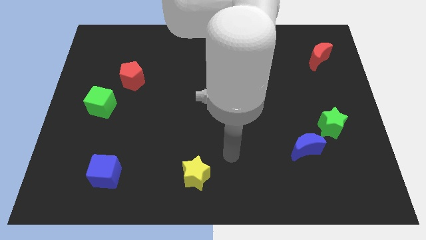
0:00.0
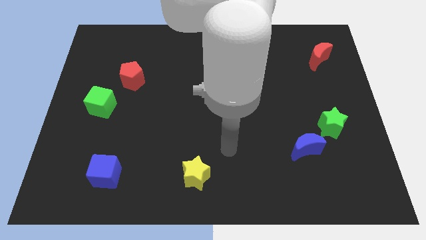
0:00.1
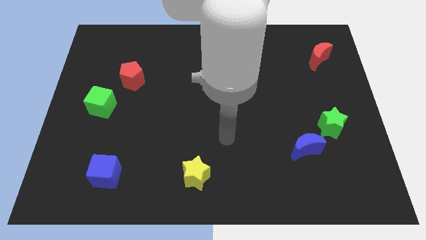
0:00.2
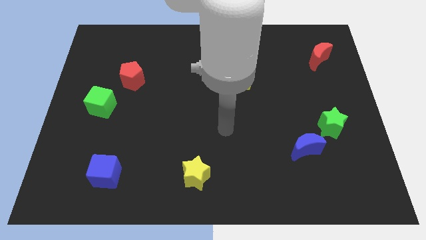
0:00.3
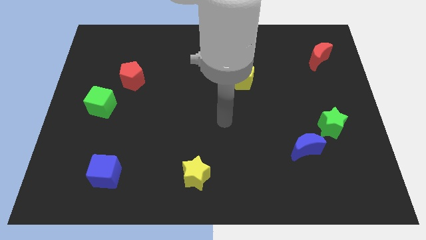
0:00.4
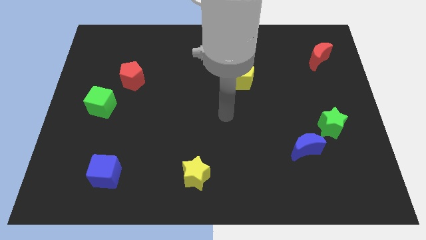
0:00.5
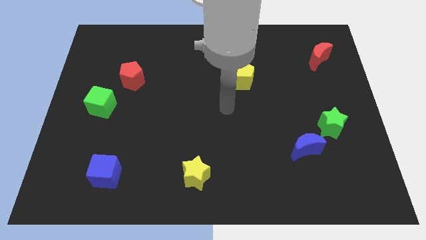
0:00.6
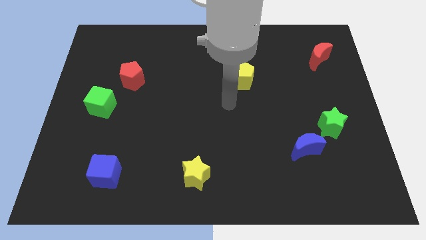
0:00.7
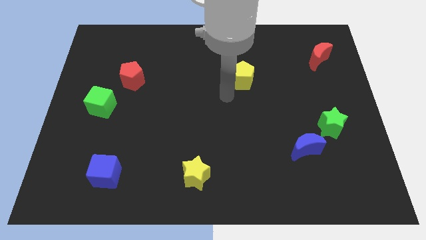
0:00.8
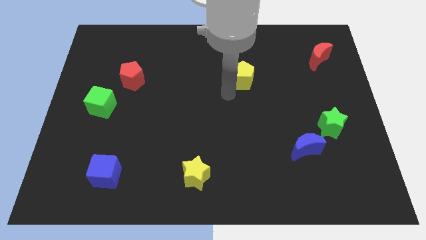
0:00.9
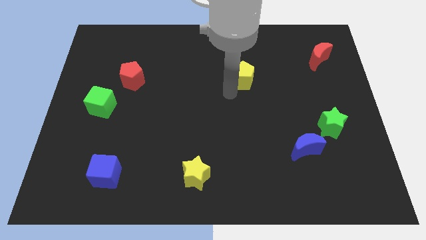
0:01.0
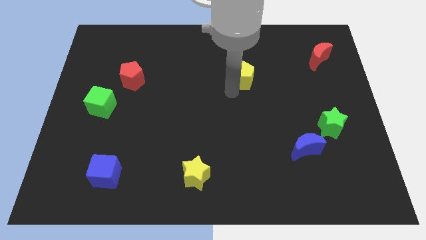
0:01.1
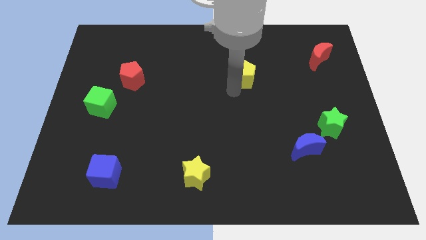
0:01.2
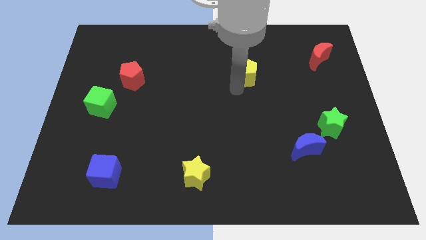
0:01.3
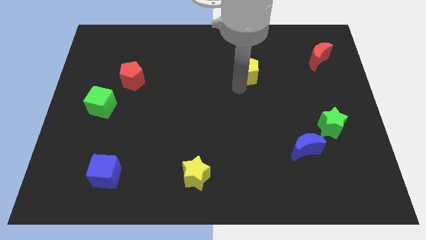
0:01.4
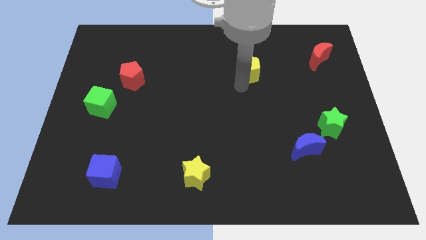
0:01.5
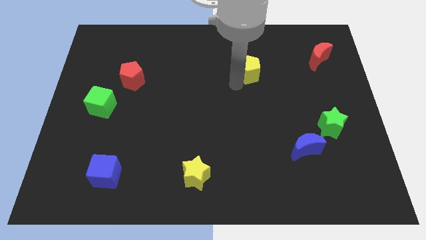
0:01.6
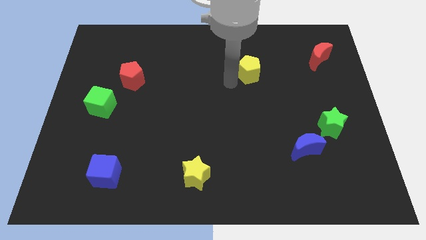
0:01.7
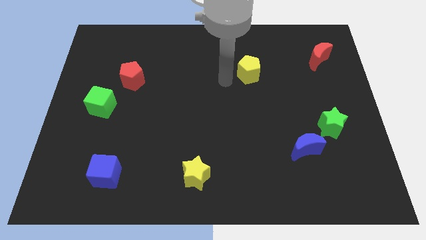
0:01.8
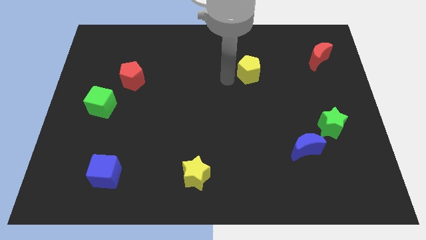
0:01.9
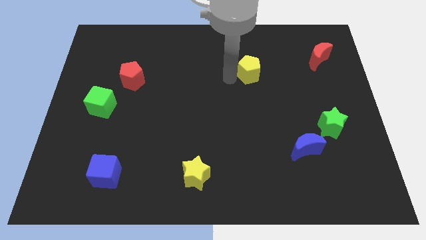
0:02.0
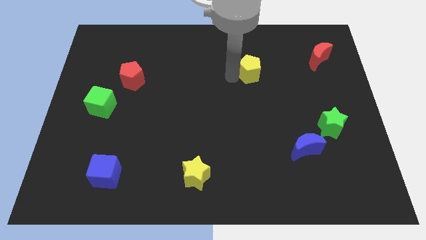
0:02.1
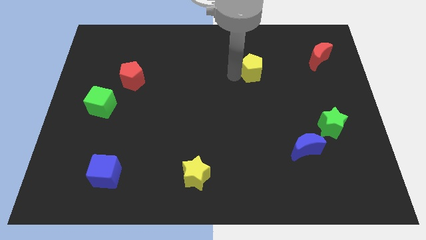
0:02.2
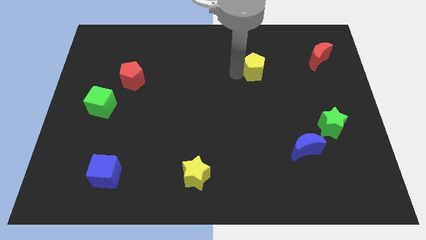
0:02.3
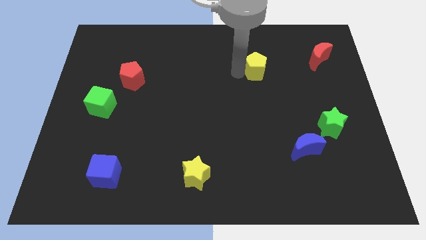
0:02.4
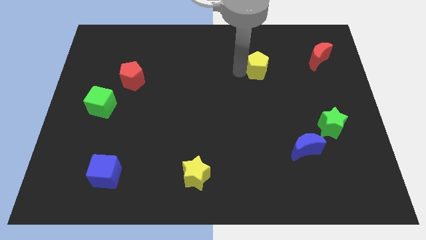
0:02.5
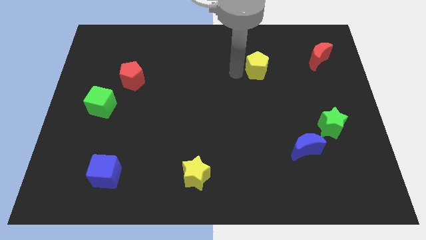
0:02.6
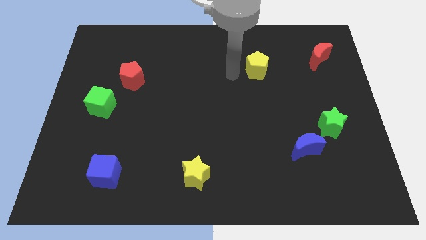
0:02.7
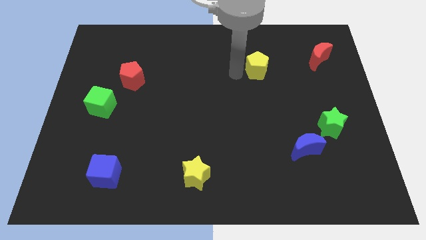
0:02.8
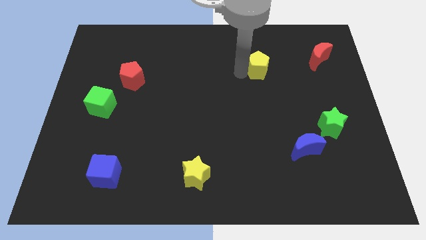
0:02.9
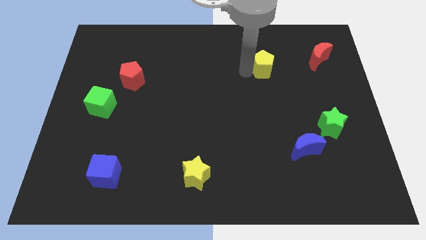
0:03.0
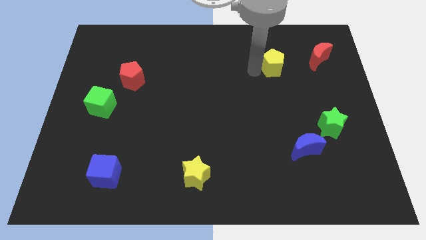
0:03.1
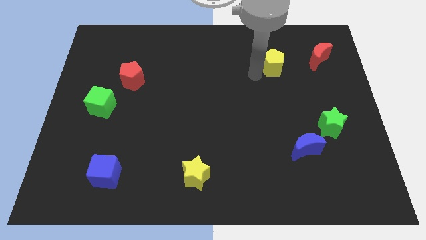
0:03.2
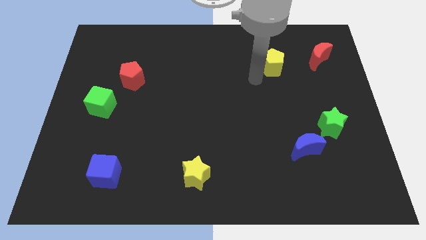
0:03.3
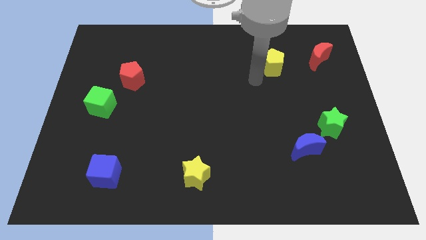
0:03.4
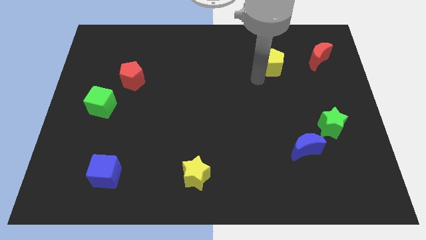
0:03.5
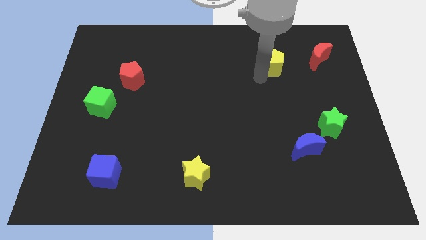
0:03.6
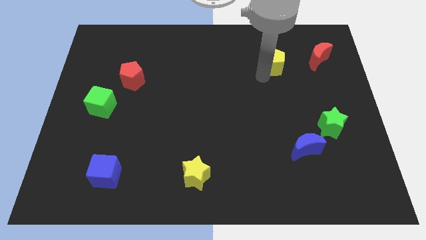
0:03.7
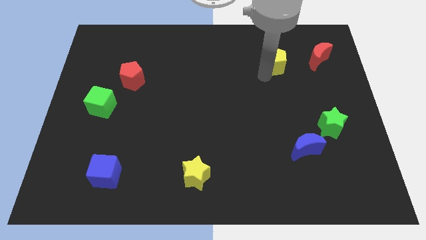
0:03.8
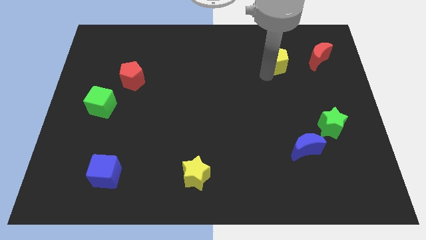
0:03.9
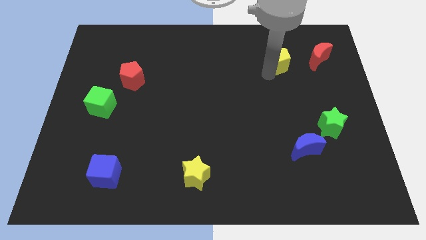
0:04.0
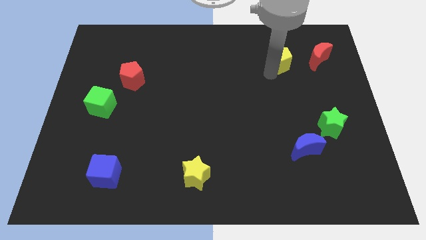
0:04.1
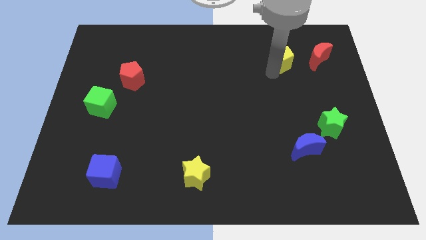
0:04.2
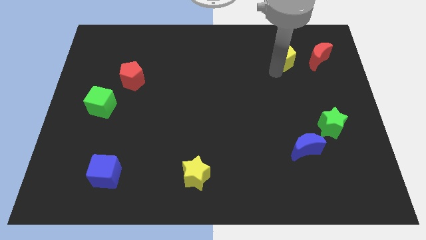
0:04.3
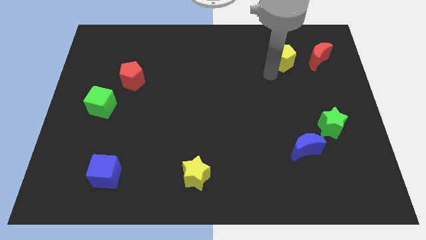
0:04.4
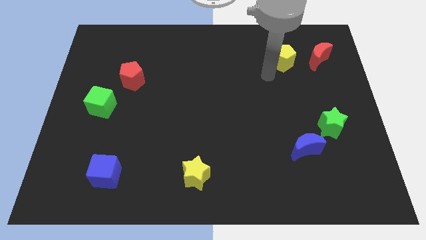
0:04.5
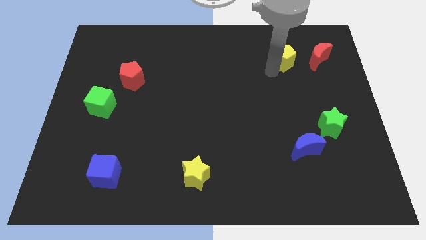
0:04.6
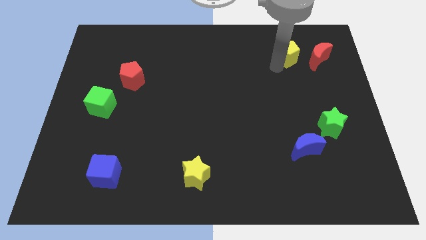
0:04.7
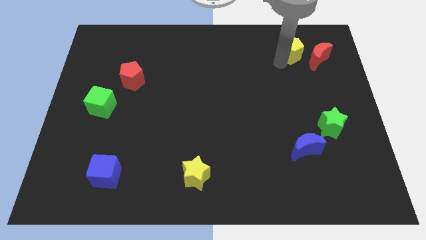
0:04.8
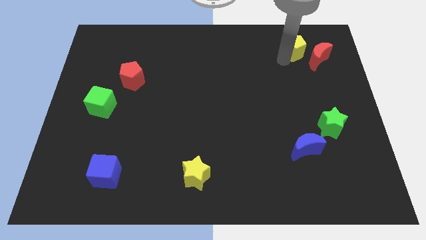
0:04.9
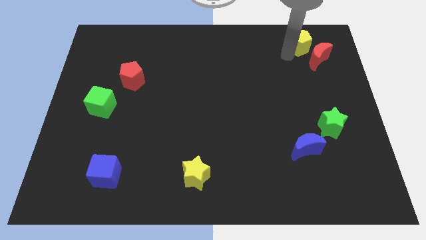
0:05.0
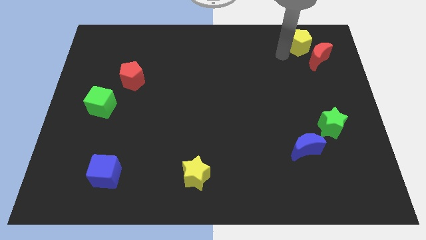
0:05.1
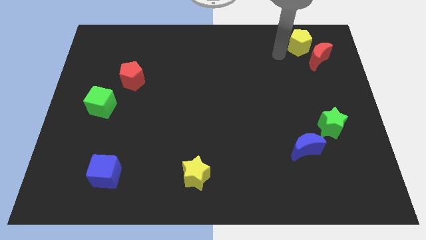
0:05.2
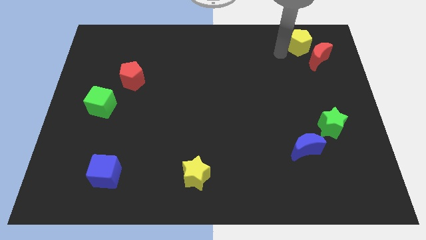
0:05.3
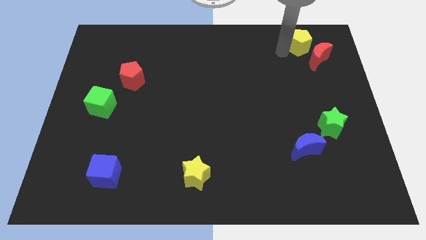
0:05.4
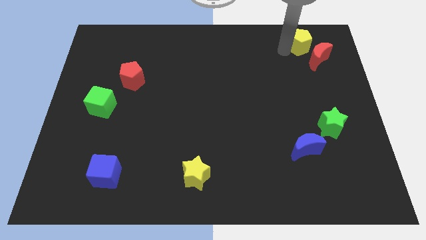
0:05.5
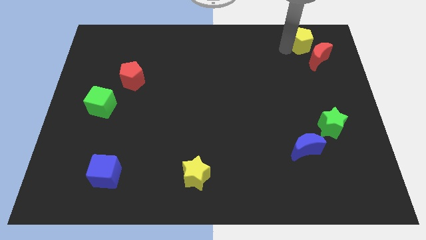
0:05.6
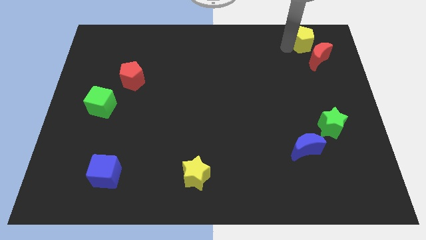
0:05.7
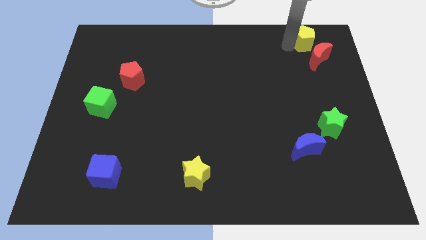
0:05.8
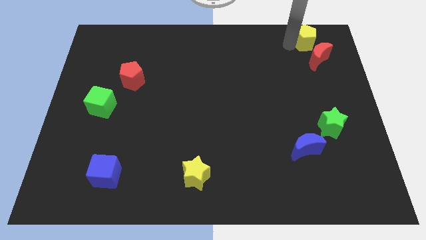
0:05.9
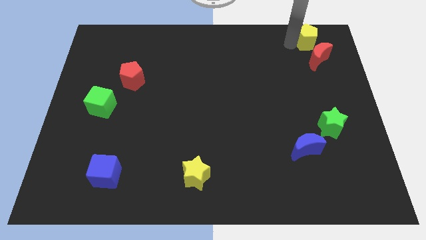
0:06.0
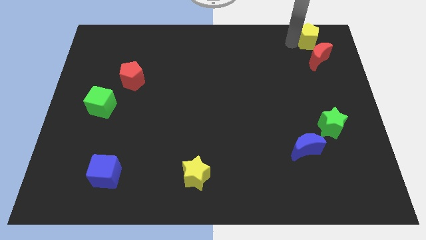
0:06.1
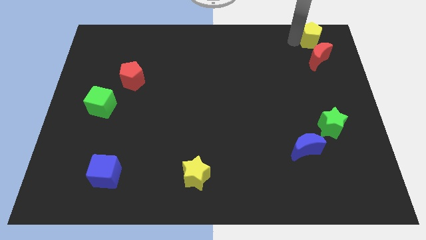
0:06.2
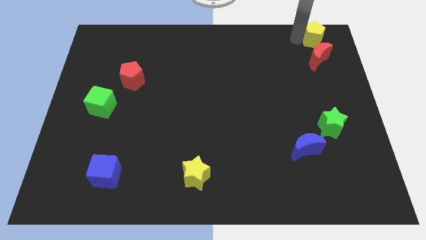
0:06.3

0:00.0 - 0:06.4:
put the yellow pentagon to the top right corner
